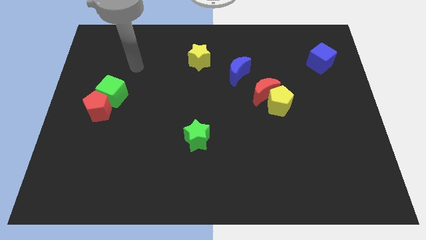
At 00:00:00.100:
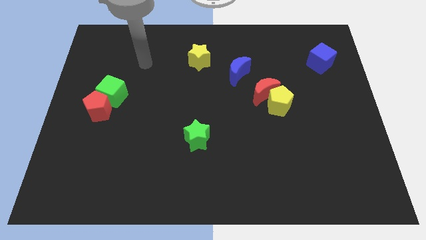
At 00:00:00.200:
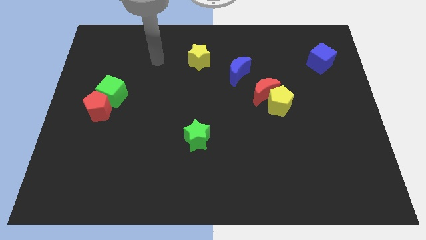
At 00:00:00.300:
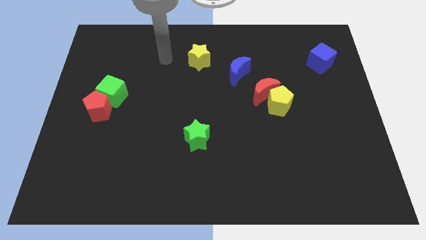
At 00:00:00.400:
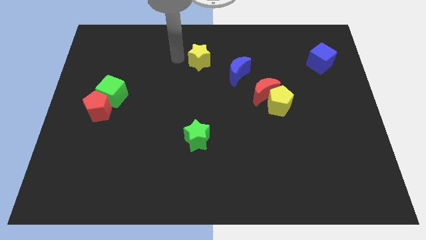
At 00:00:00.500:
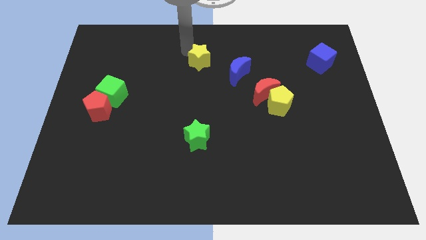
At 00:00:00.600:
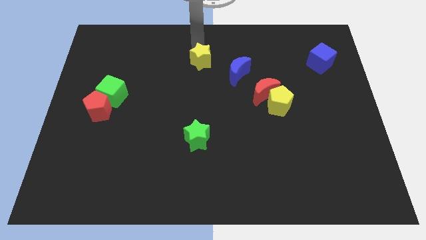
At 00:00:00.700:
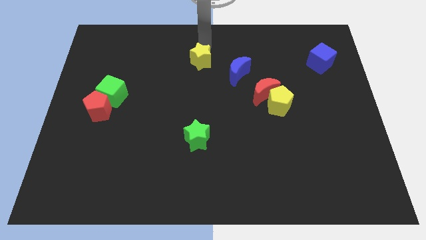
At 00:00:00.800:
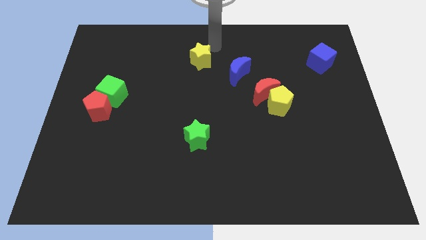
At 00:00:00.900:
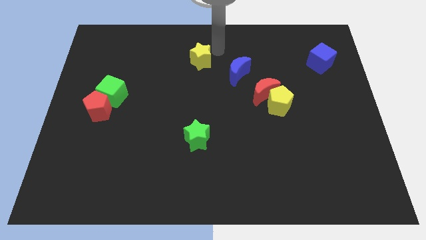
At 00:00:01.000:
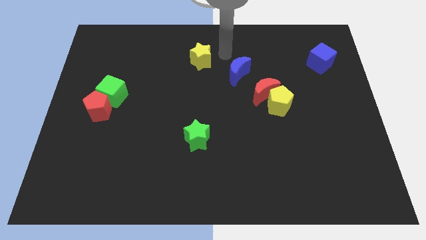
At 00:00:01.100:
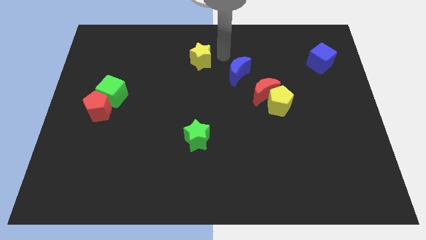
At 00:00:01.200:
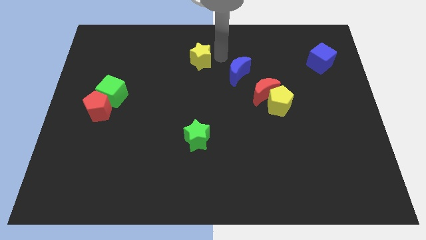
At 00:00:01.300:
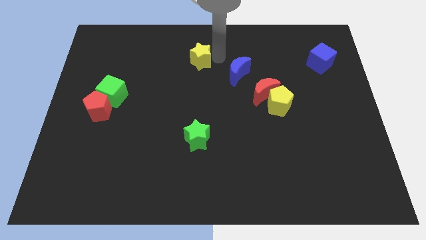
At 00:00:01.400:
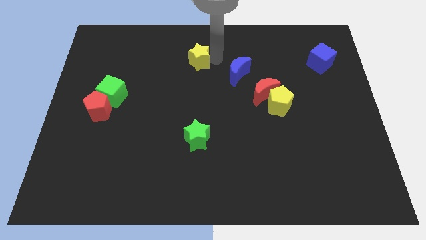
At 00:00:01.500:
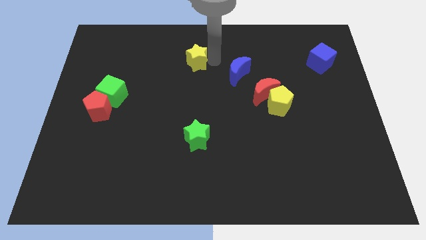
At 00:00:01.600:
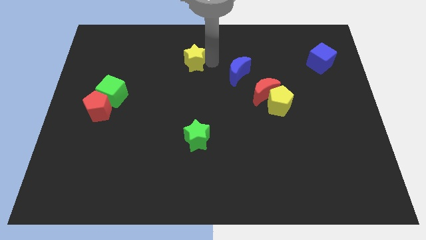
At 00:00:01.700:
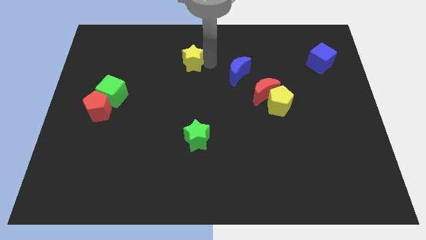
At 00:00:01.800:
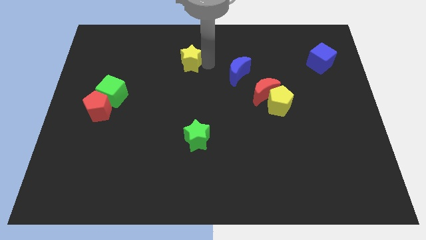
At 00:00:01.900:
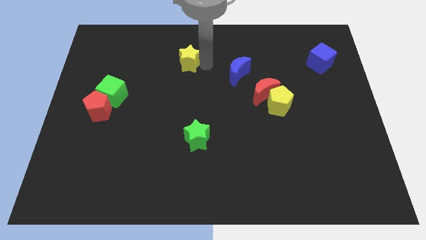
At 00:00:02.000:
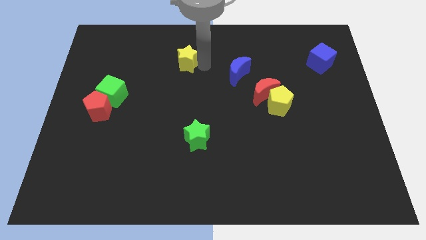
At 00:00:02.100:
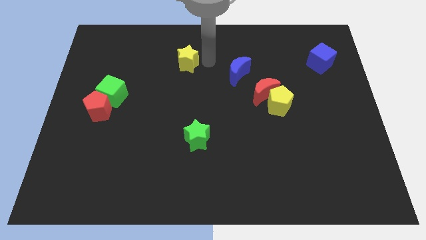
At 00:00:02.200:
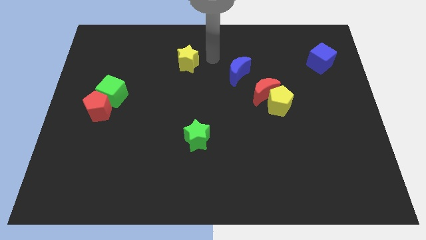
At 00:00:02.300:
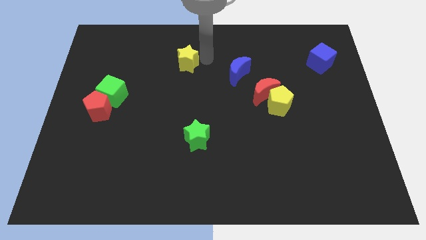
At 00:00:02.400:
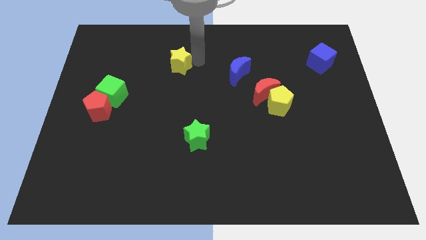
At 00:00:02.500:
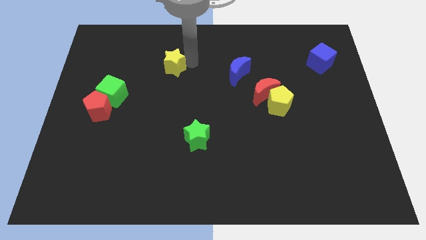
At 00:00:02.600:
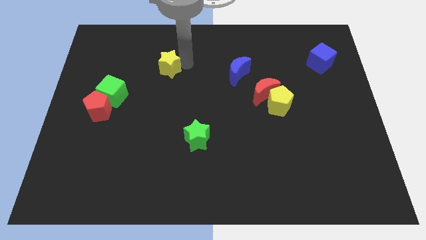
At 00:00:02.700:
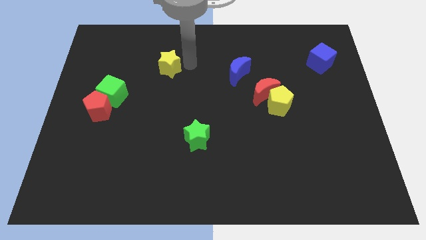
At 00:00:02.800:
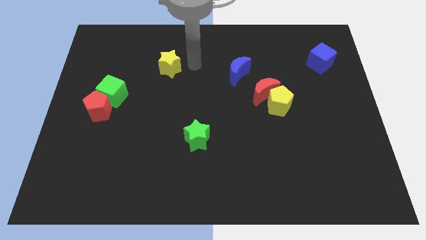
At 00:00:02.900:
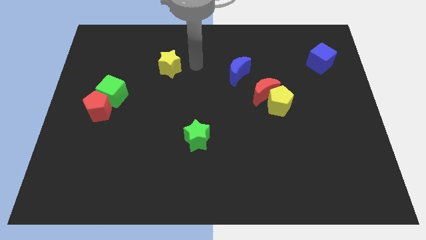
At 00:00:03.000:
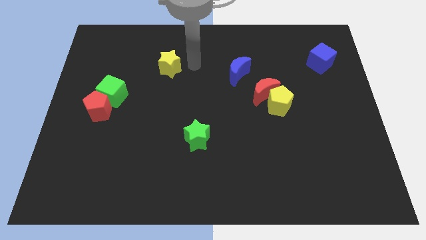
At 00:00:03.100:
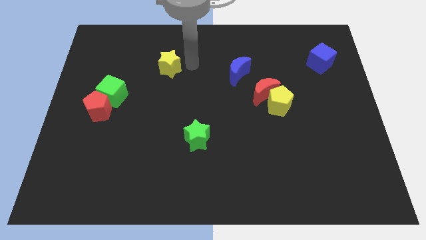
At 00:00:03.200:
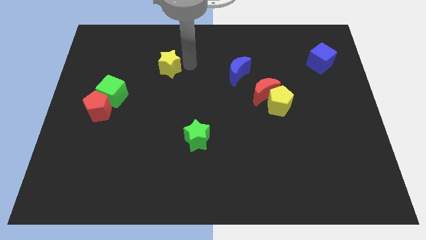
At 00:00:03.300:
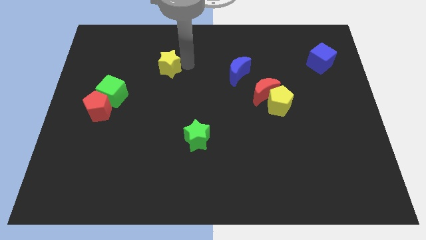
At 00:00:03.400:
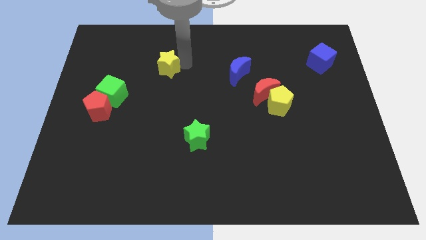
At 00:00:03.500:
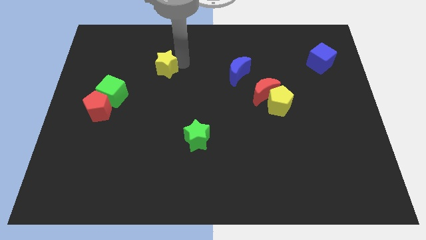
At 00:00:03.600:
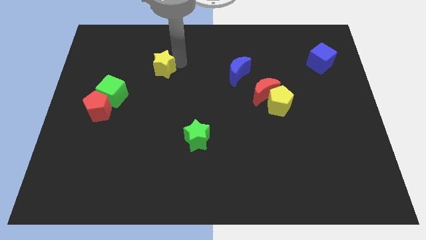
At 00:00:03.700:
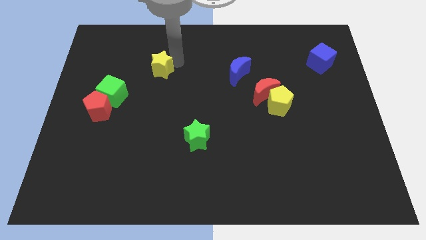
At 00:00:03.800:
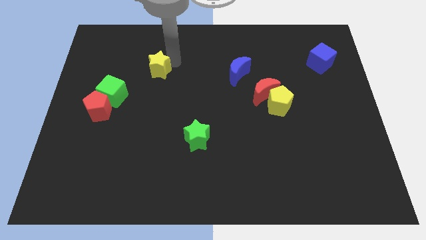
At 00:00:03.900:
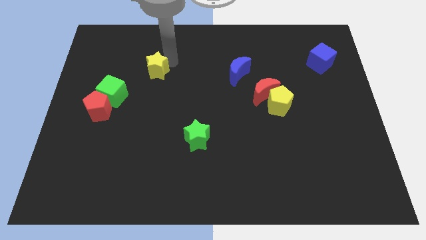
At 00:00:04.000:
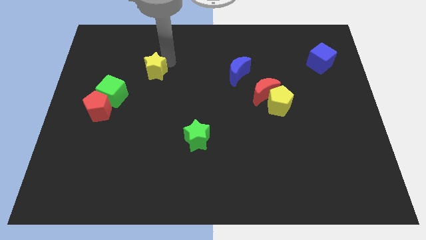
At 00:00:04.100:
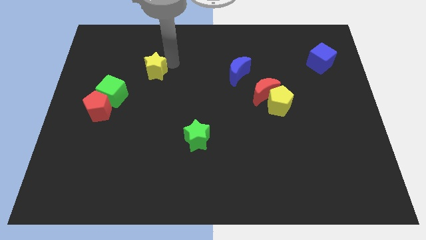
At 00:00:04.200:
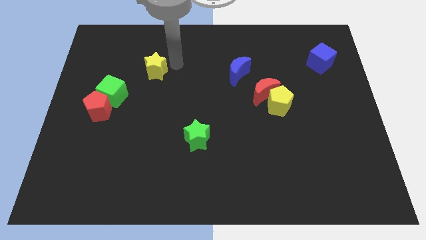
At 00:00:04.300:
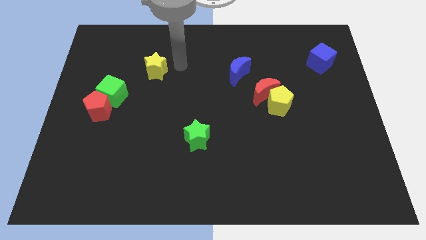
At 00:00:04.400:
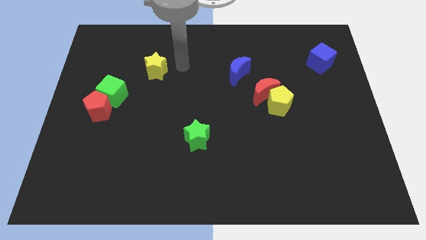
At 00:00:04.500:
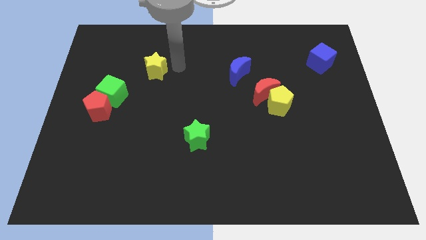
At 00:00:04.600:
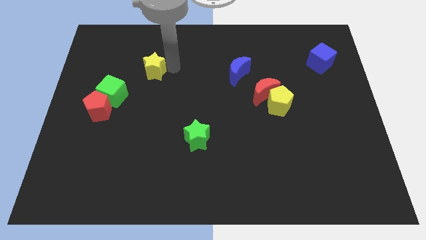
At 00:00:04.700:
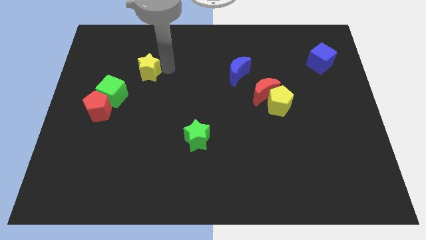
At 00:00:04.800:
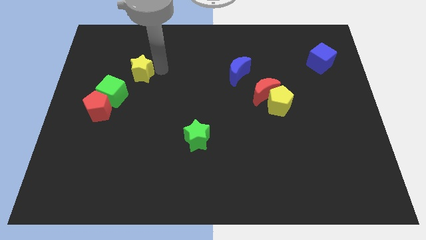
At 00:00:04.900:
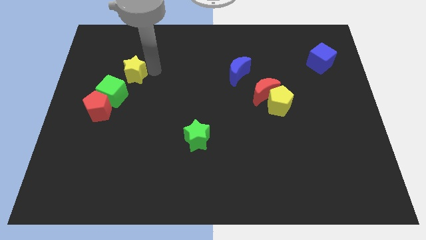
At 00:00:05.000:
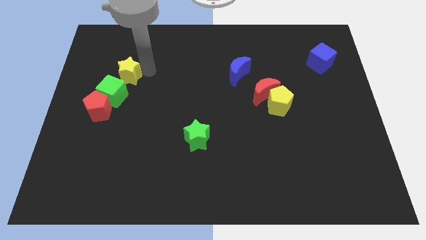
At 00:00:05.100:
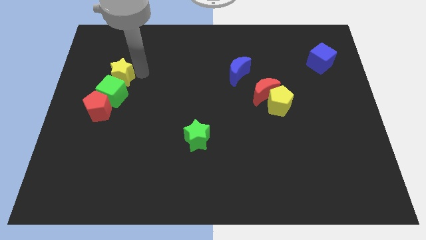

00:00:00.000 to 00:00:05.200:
move the yellow star above the red pentagon

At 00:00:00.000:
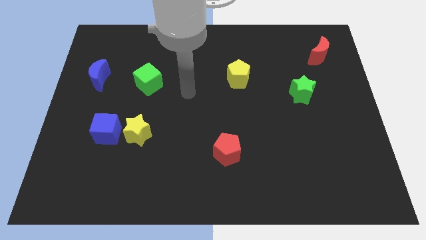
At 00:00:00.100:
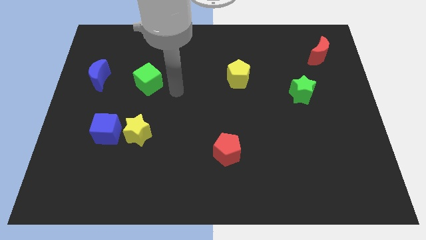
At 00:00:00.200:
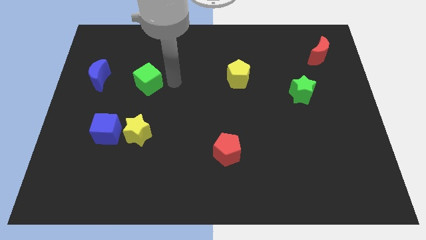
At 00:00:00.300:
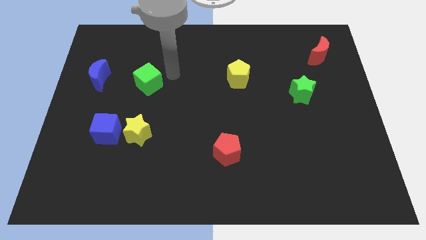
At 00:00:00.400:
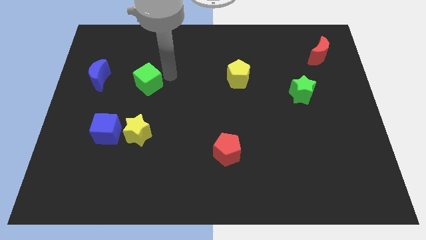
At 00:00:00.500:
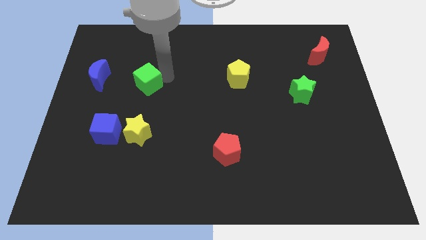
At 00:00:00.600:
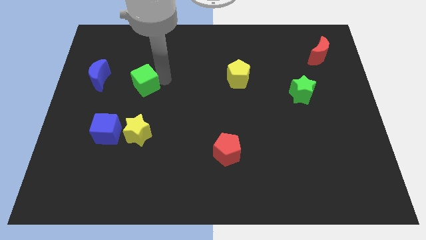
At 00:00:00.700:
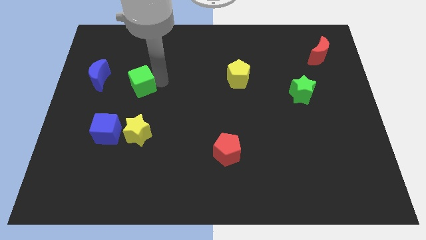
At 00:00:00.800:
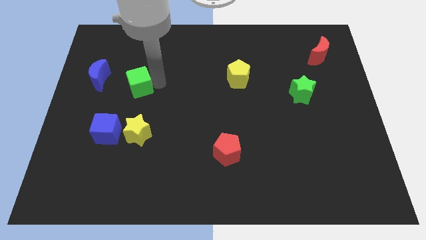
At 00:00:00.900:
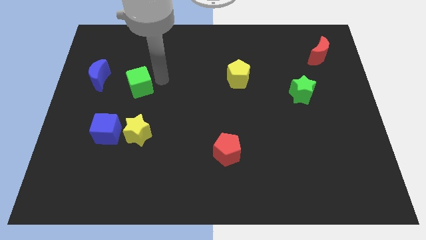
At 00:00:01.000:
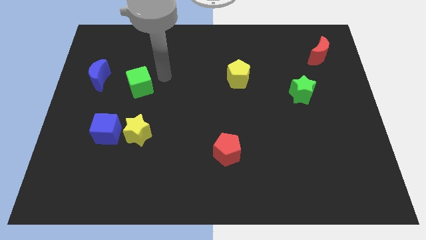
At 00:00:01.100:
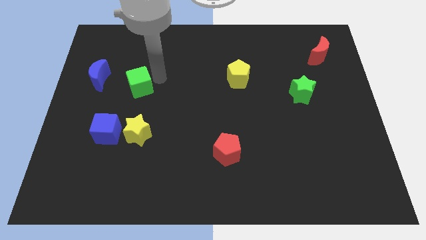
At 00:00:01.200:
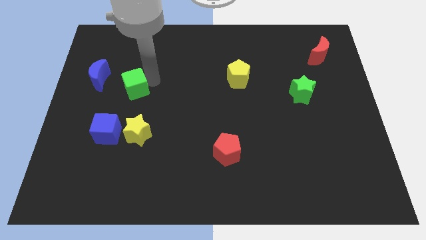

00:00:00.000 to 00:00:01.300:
put the green cube above the blue cube
